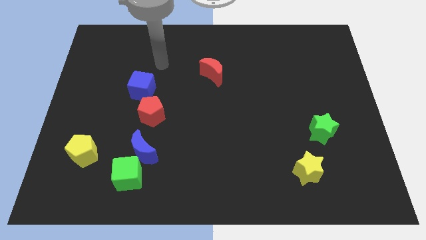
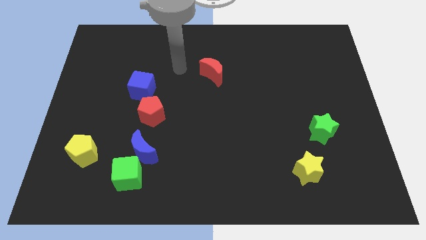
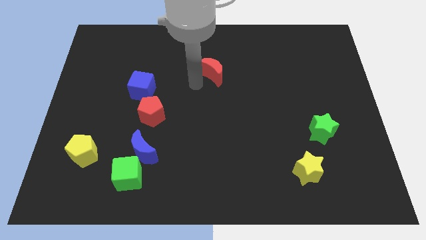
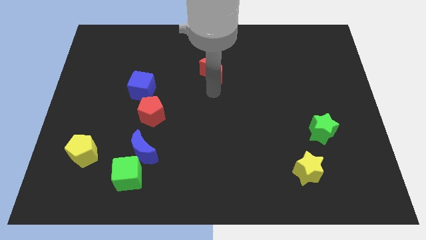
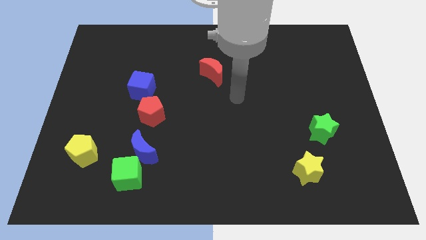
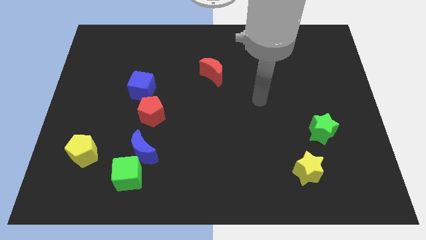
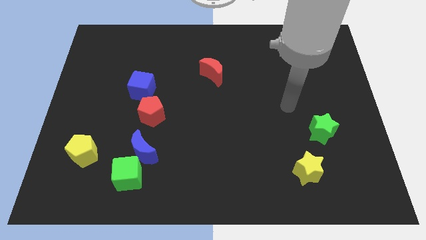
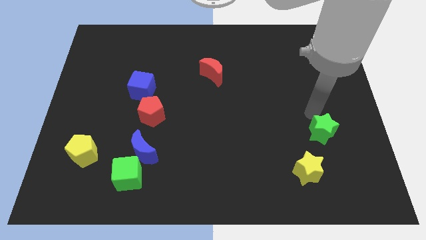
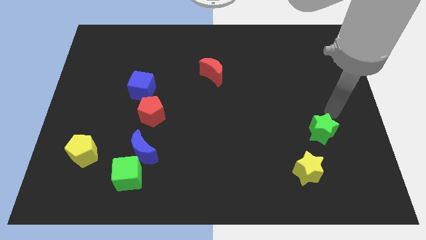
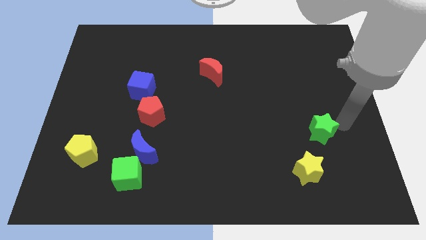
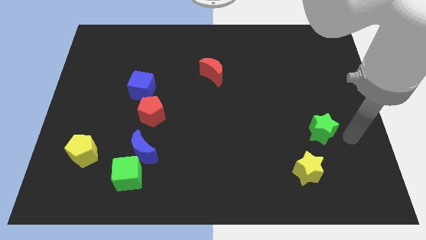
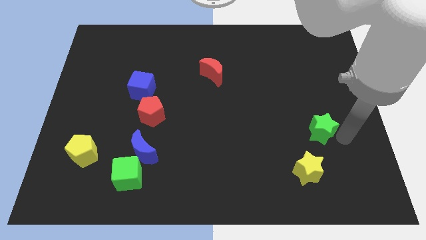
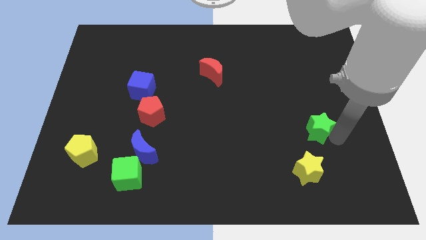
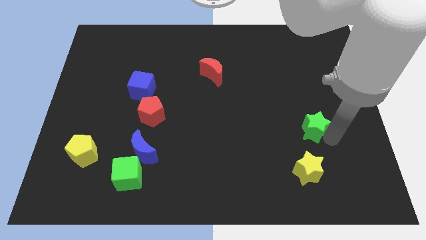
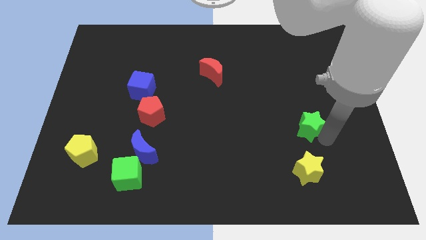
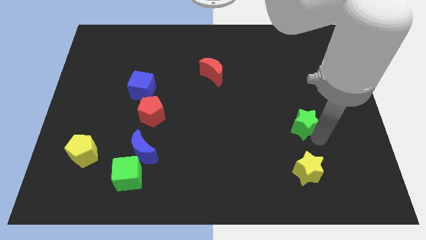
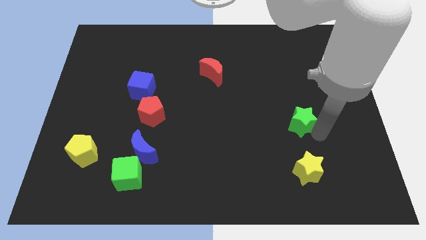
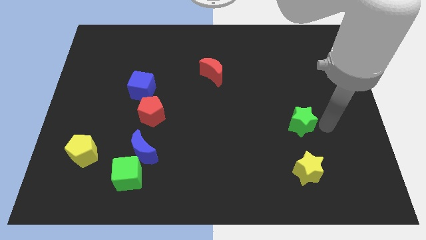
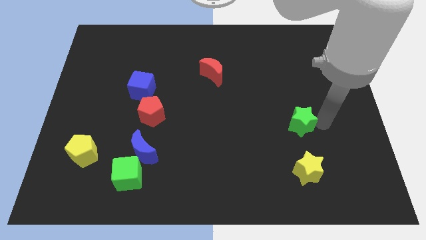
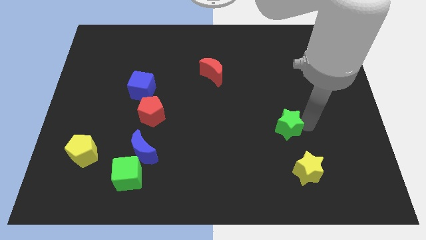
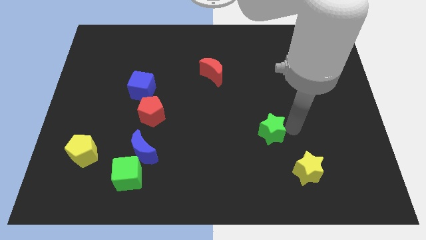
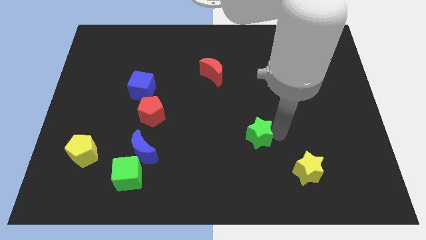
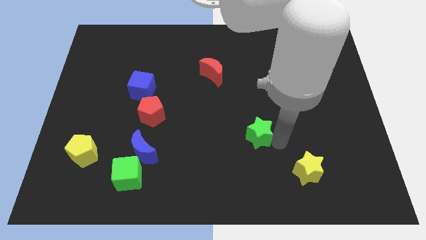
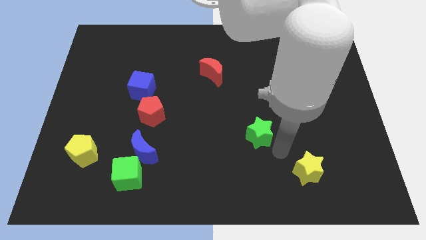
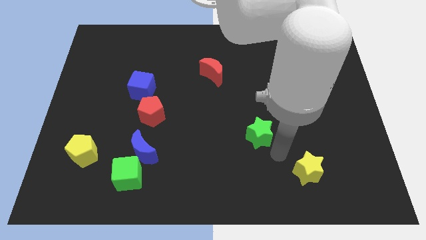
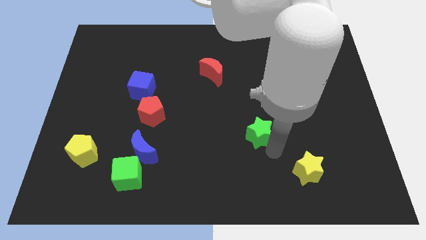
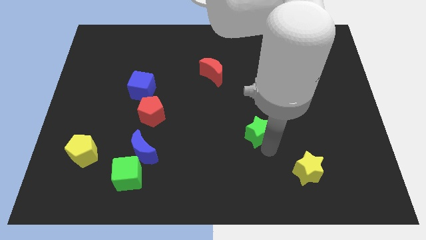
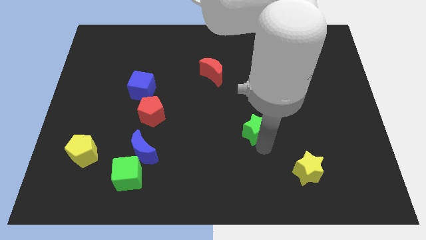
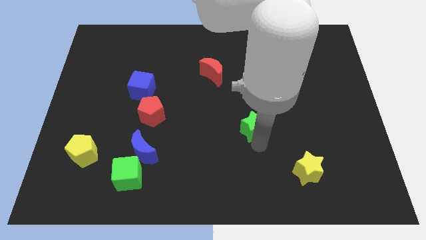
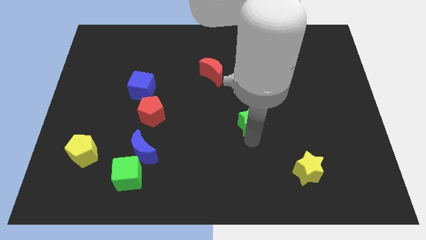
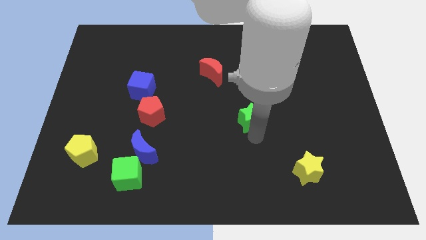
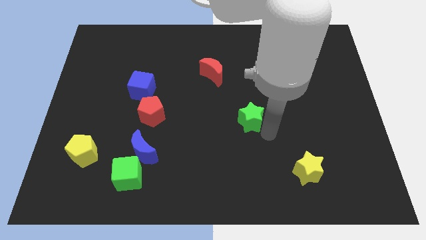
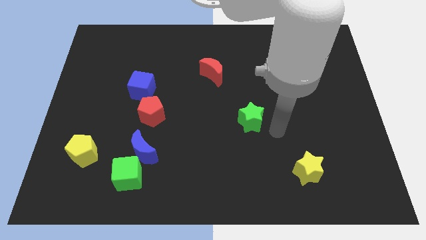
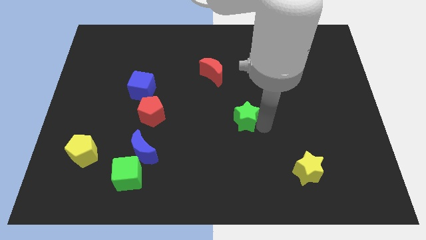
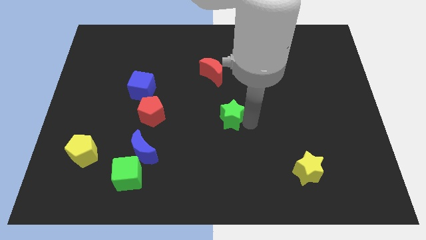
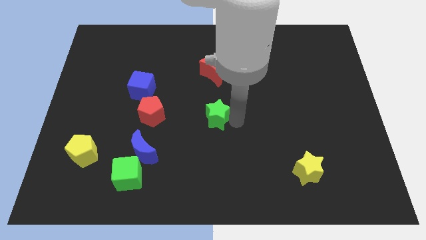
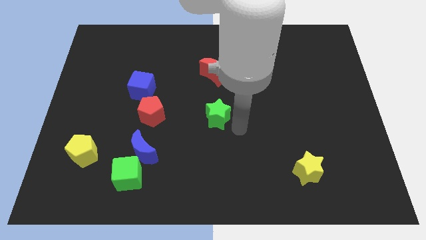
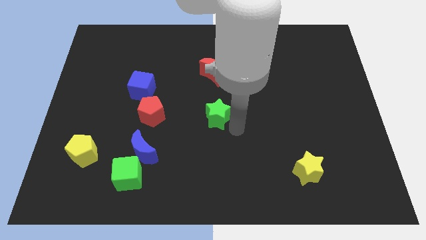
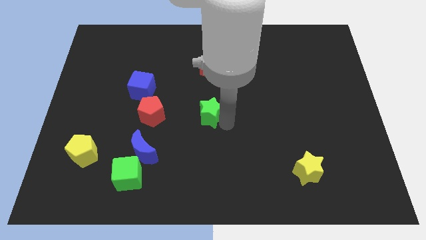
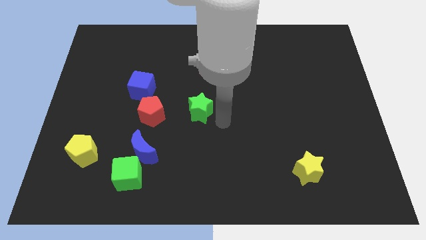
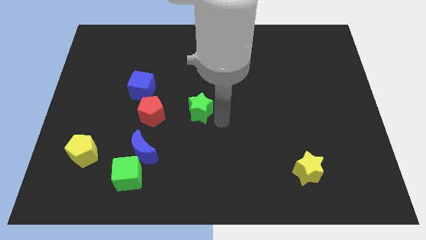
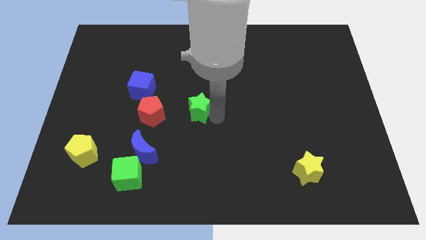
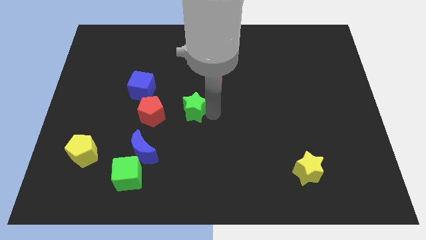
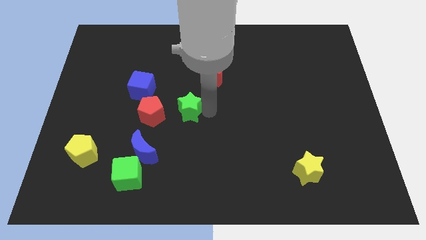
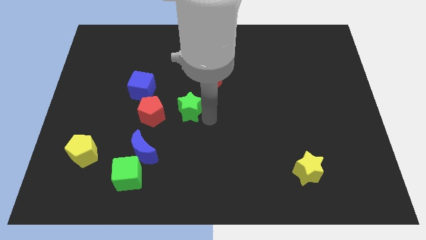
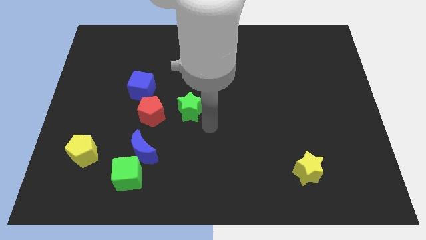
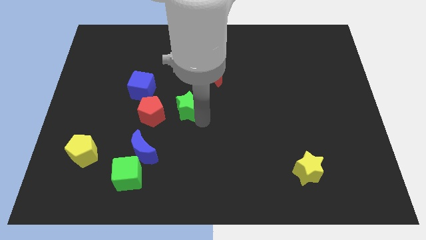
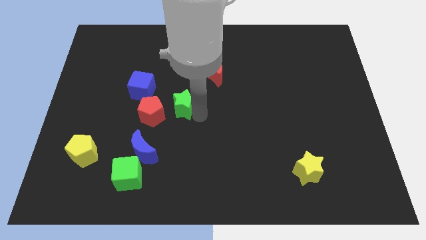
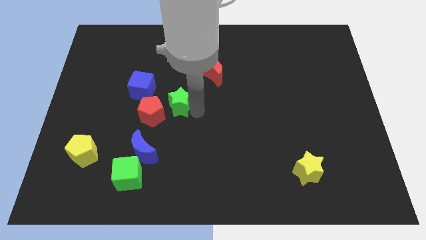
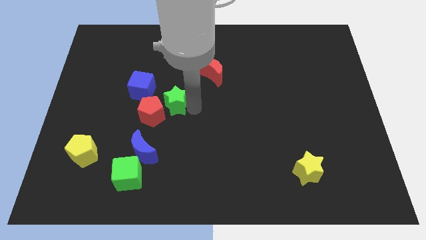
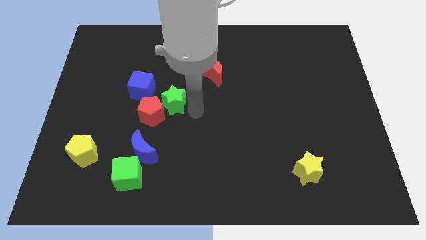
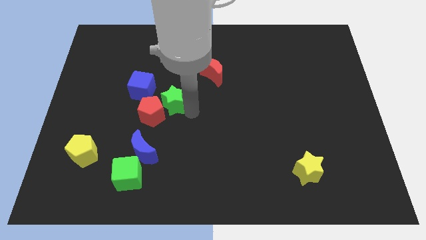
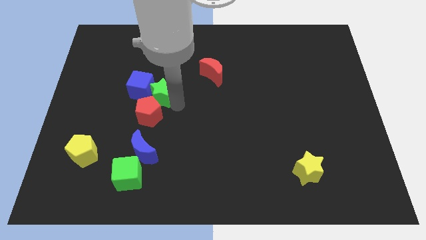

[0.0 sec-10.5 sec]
slide the green star towards the blue cube

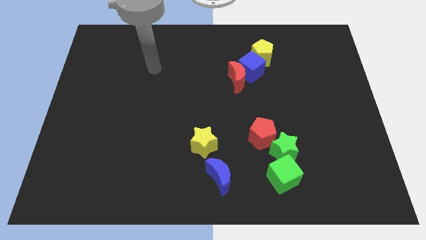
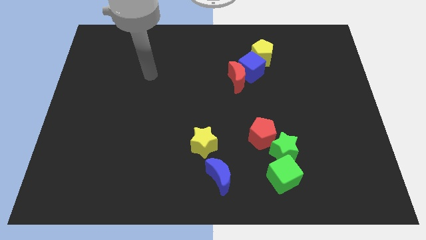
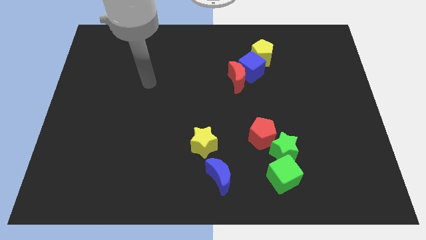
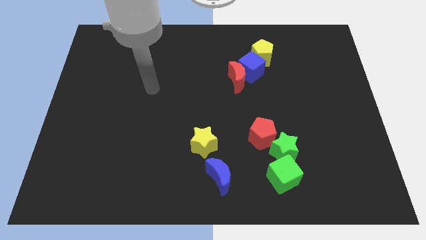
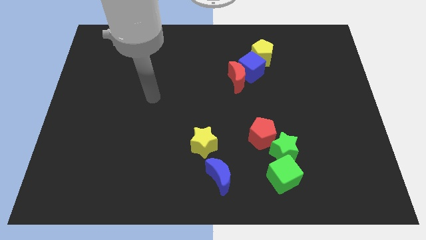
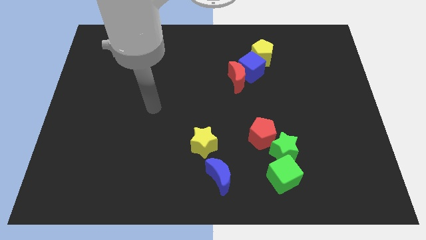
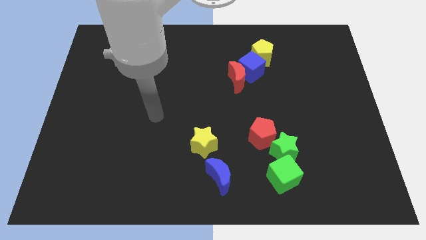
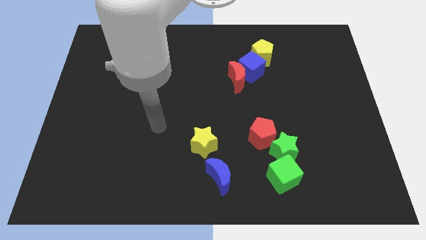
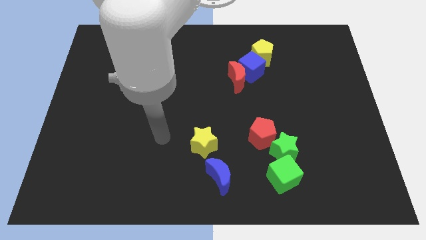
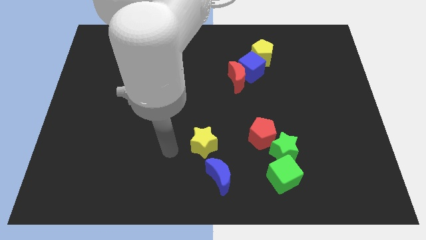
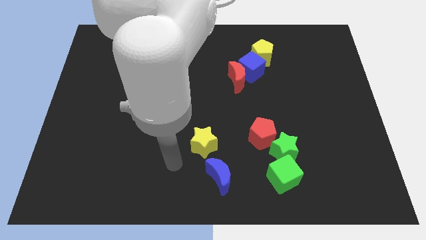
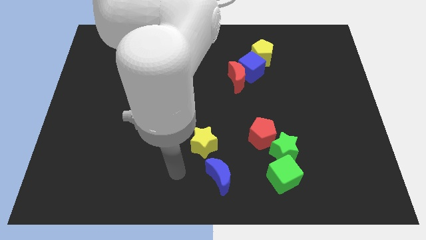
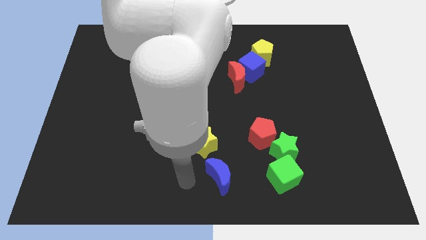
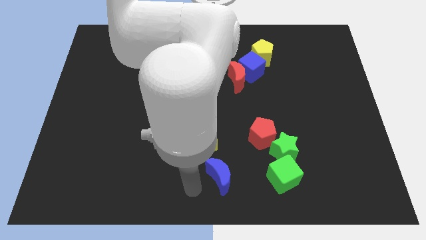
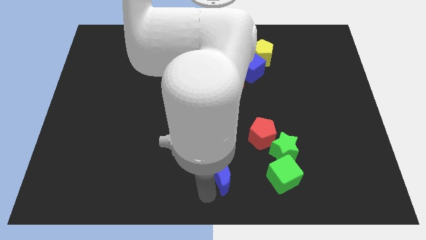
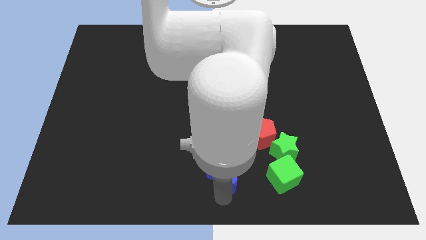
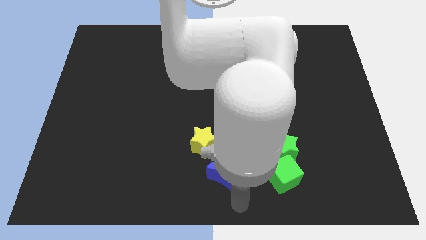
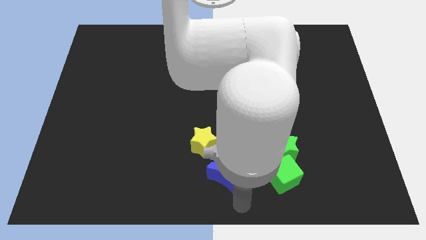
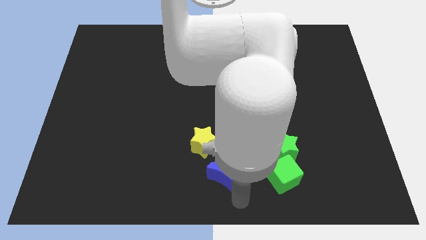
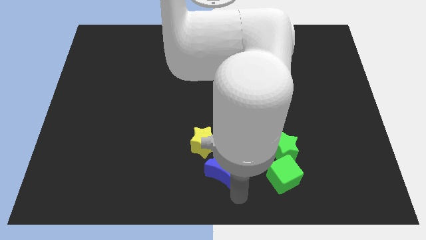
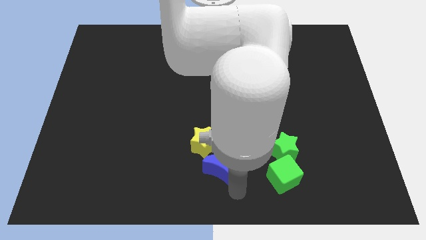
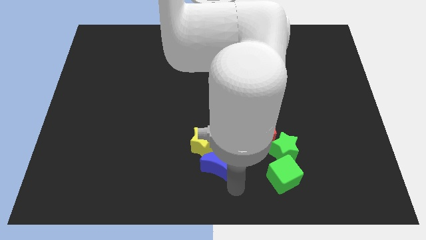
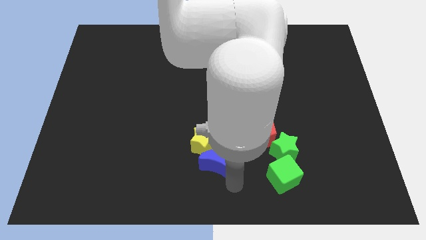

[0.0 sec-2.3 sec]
put the blue moon close to the yellow star
